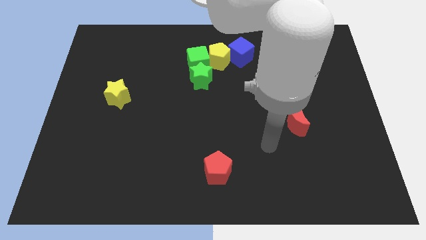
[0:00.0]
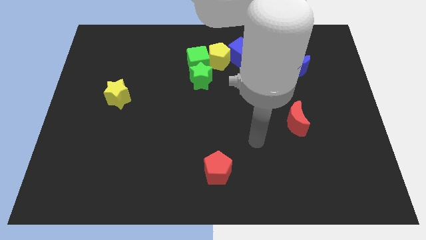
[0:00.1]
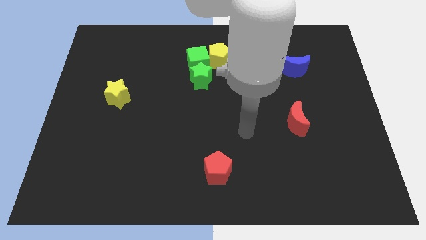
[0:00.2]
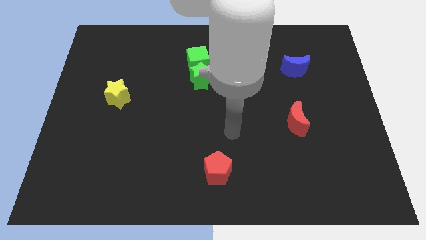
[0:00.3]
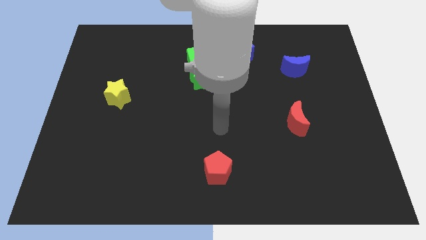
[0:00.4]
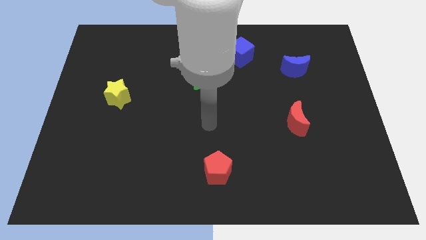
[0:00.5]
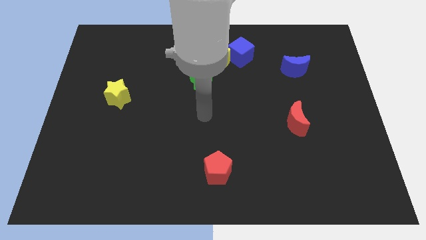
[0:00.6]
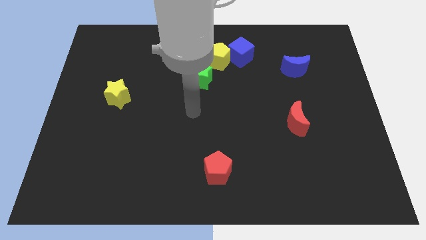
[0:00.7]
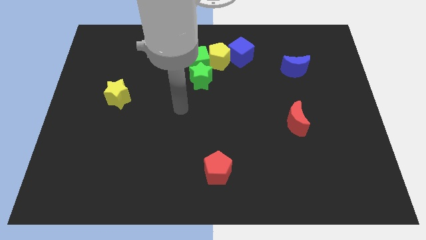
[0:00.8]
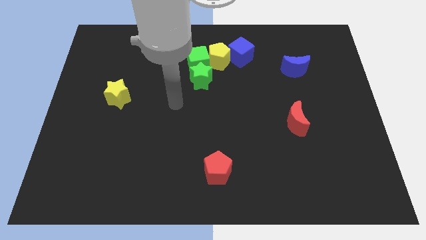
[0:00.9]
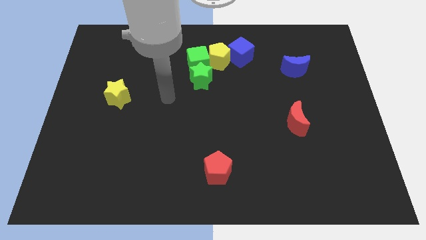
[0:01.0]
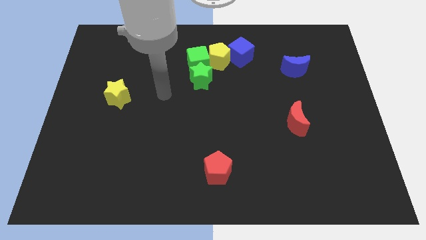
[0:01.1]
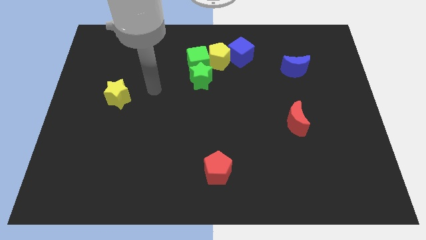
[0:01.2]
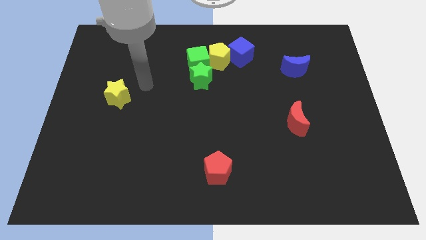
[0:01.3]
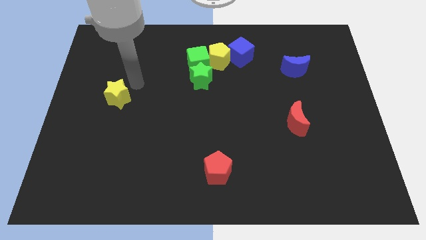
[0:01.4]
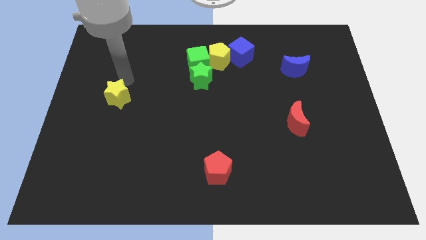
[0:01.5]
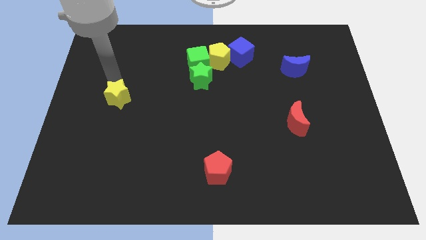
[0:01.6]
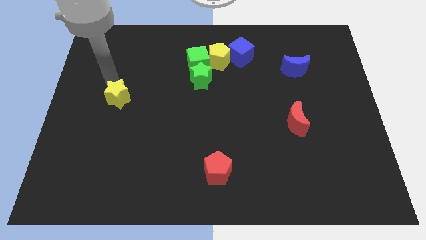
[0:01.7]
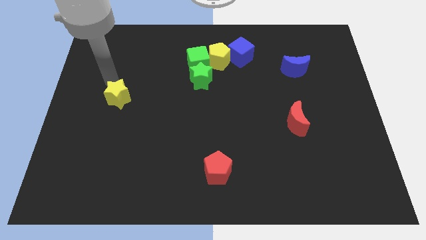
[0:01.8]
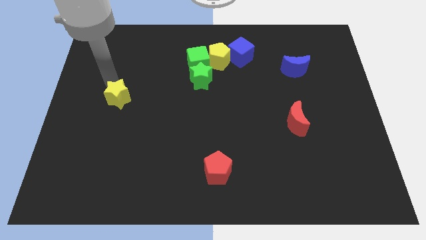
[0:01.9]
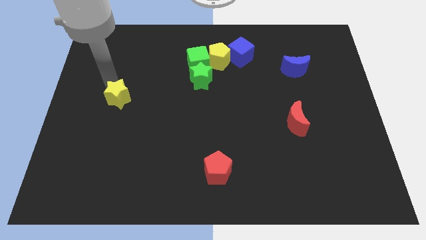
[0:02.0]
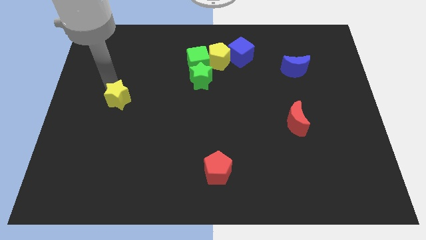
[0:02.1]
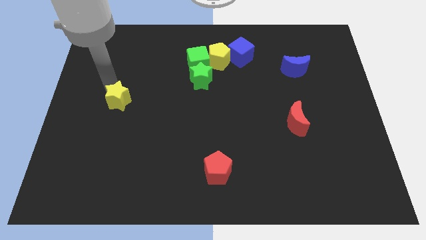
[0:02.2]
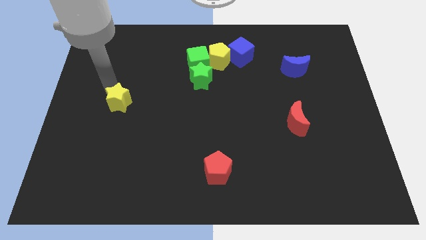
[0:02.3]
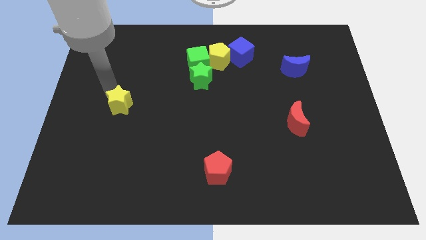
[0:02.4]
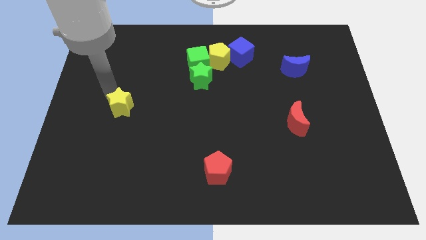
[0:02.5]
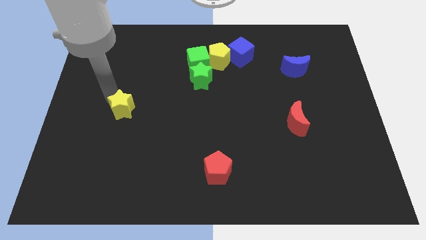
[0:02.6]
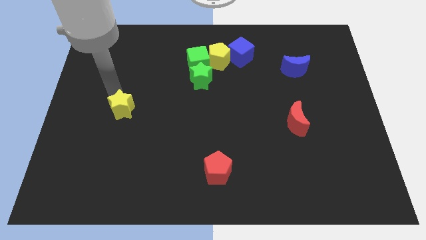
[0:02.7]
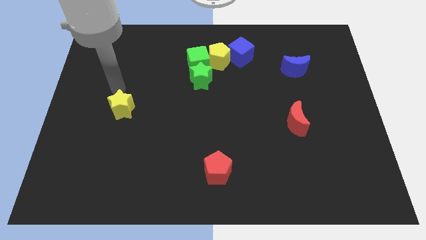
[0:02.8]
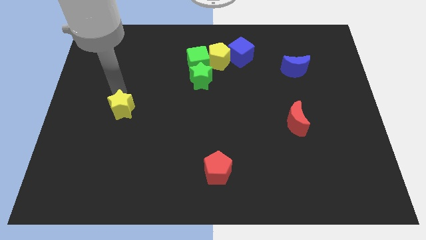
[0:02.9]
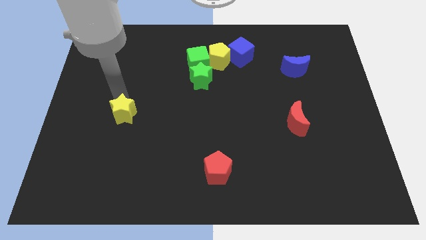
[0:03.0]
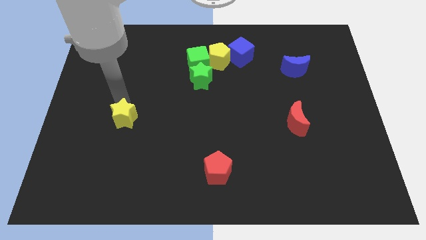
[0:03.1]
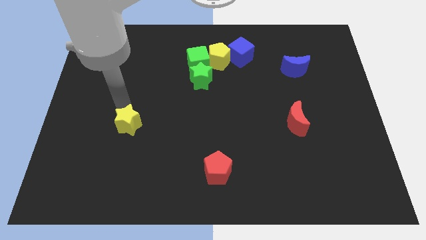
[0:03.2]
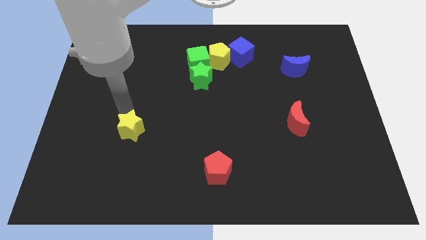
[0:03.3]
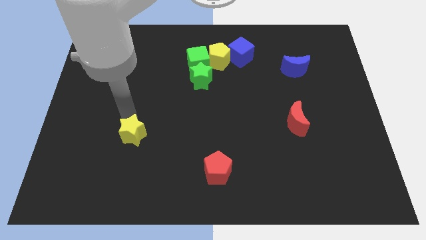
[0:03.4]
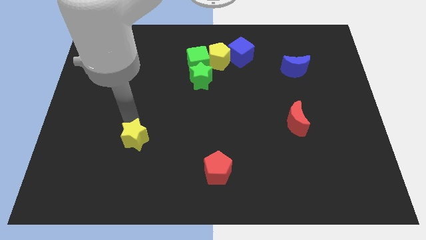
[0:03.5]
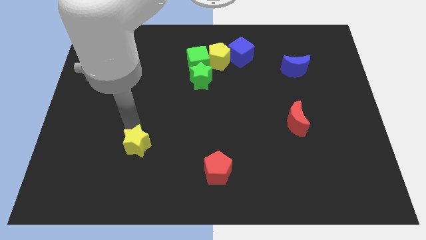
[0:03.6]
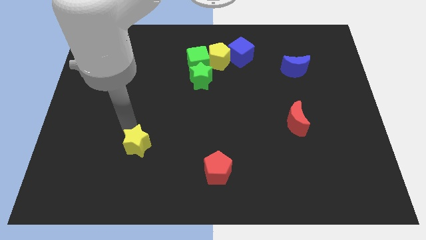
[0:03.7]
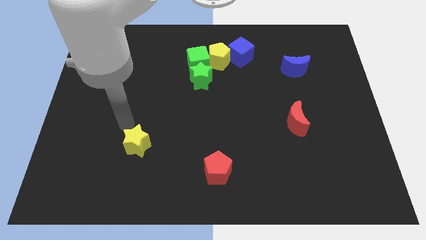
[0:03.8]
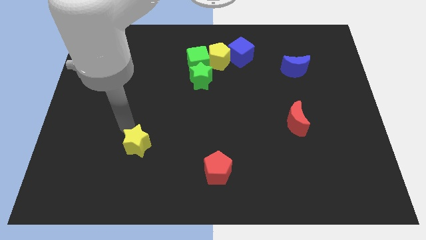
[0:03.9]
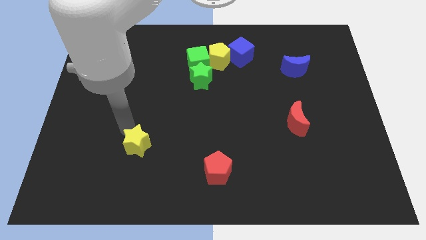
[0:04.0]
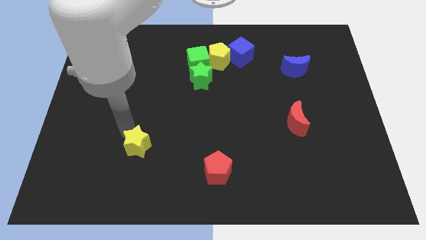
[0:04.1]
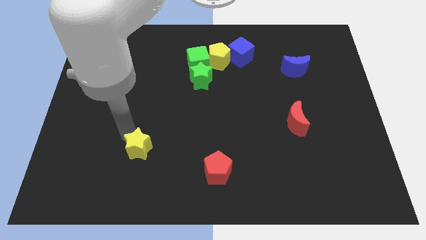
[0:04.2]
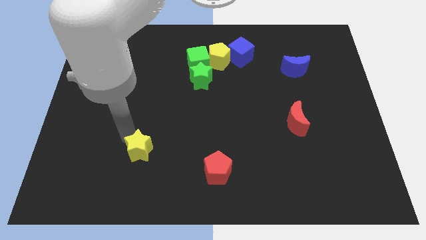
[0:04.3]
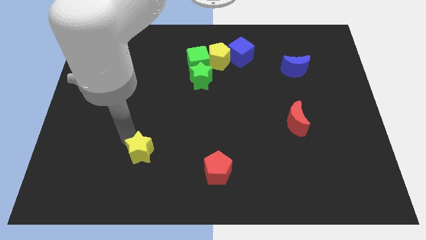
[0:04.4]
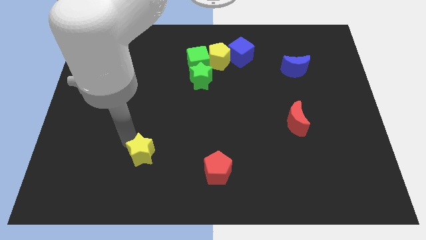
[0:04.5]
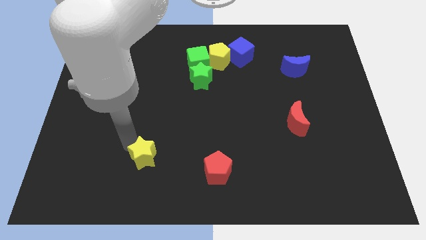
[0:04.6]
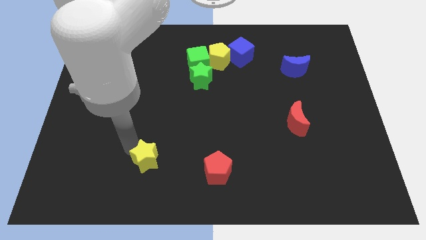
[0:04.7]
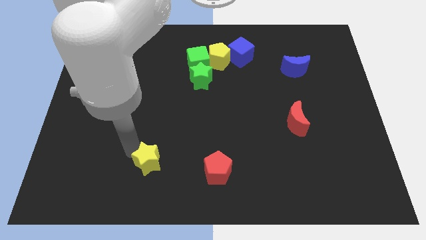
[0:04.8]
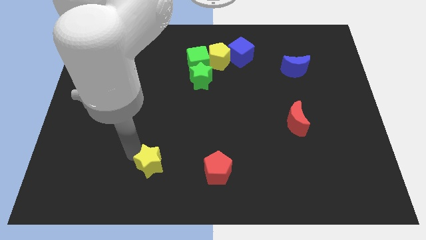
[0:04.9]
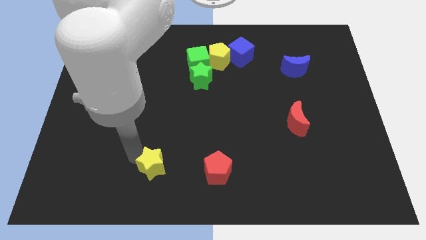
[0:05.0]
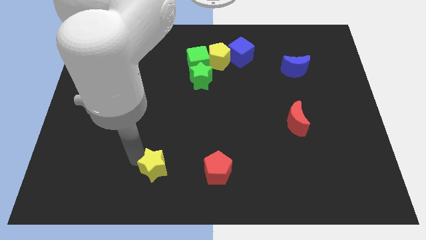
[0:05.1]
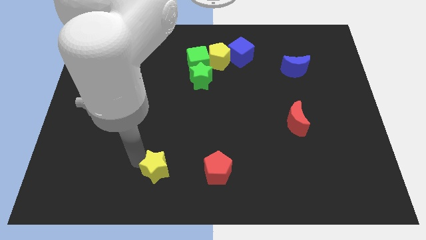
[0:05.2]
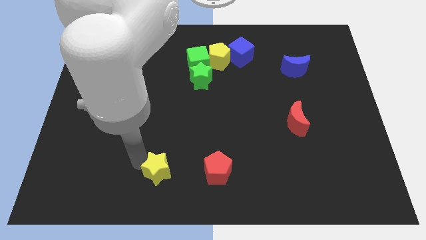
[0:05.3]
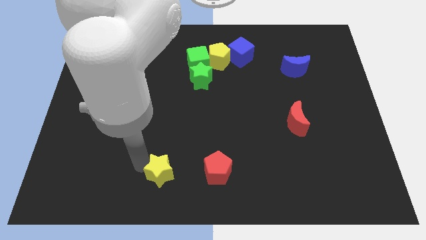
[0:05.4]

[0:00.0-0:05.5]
move the yellow star to the bottom side

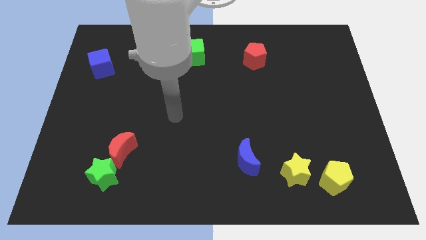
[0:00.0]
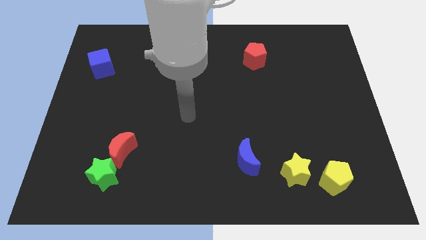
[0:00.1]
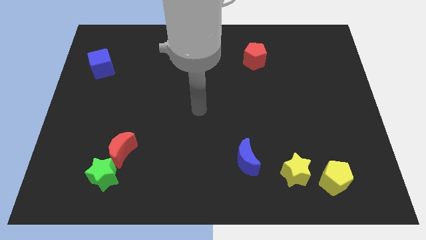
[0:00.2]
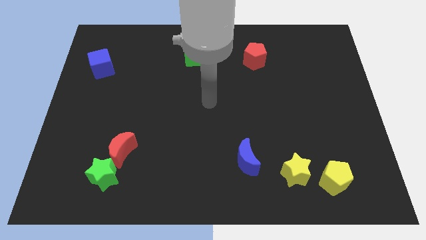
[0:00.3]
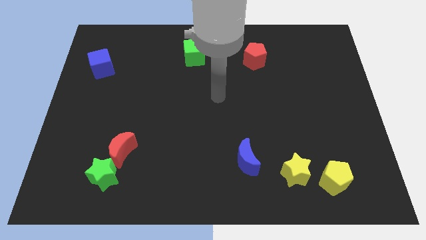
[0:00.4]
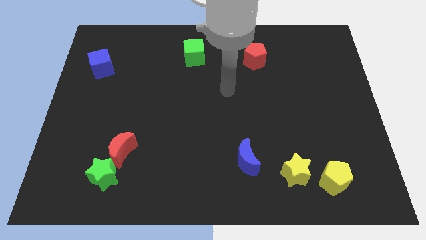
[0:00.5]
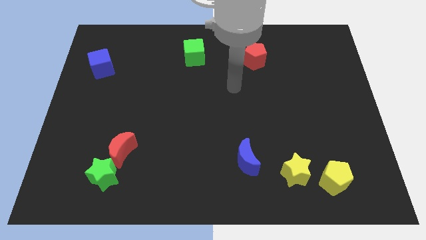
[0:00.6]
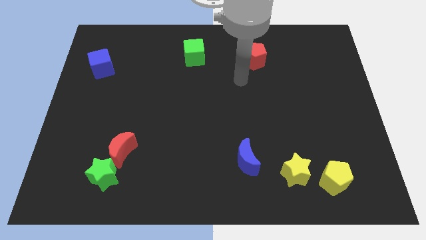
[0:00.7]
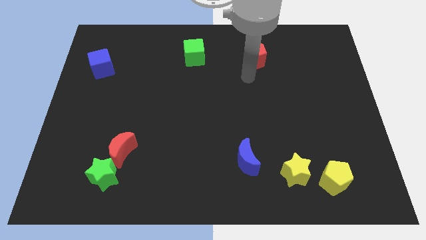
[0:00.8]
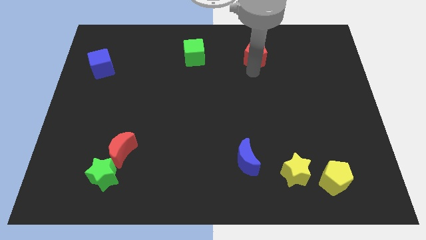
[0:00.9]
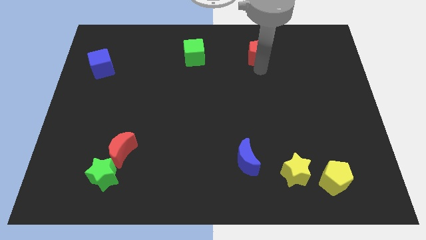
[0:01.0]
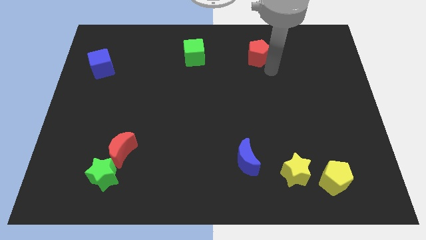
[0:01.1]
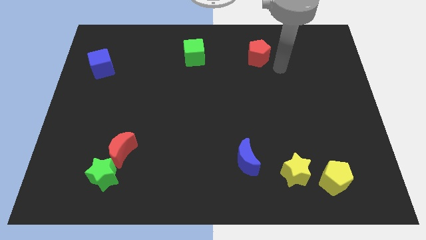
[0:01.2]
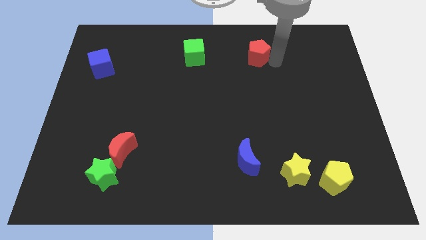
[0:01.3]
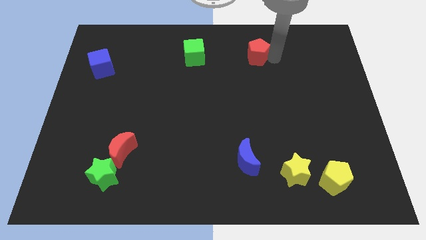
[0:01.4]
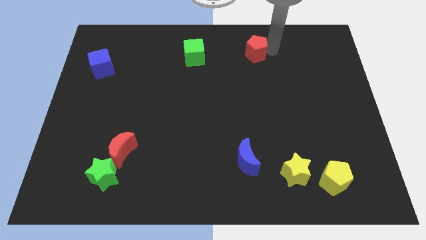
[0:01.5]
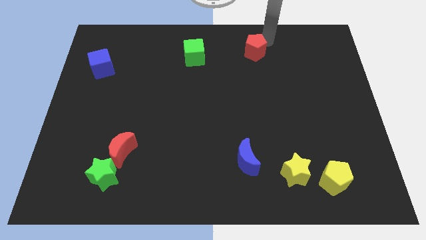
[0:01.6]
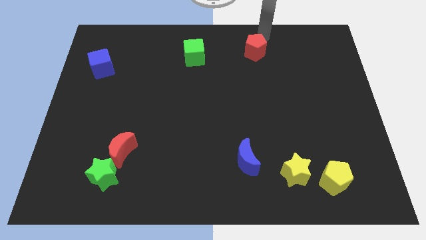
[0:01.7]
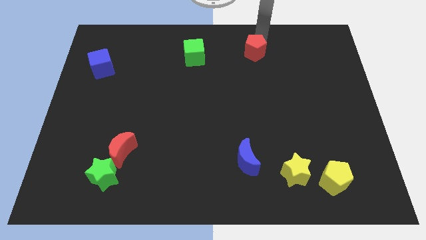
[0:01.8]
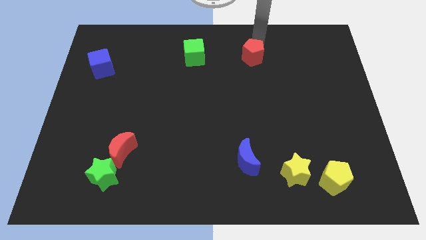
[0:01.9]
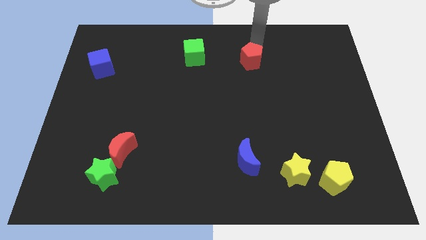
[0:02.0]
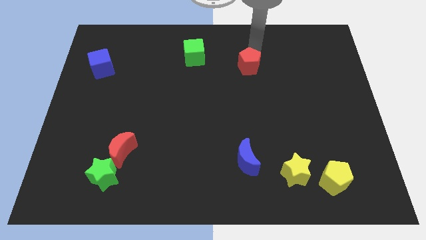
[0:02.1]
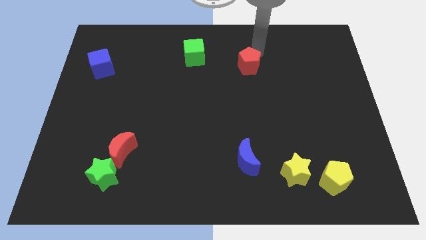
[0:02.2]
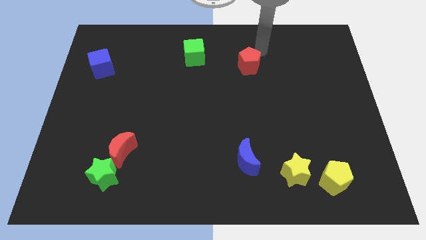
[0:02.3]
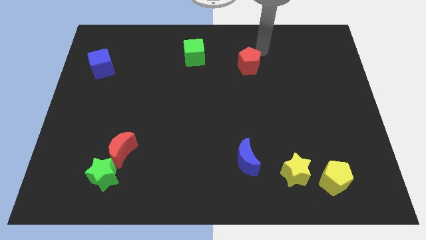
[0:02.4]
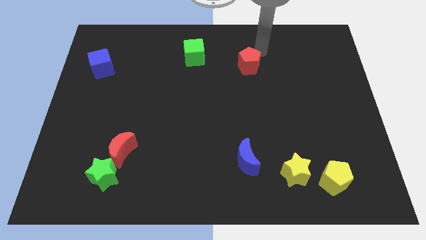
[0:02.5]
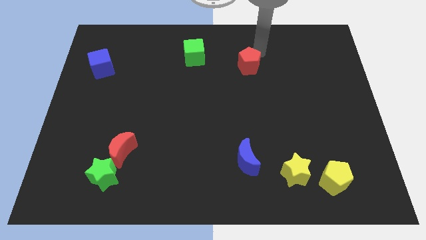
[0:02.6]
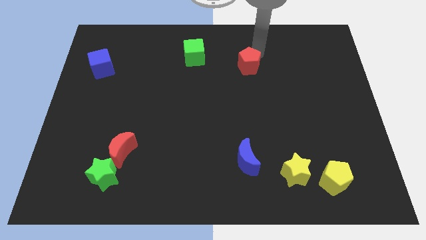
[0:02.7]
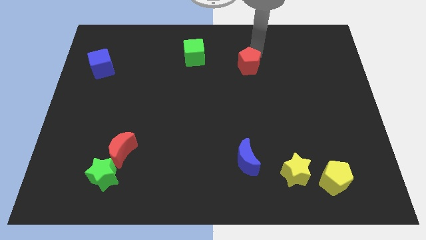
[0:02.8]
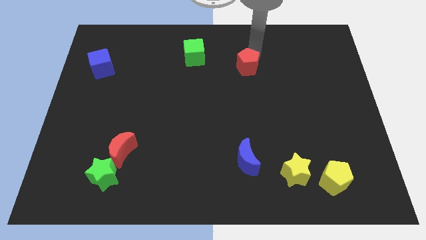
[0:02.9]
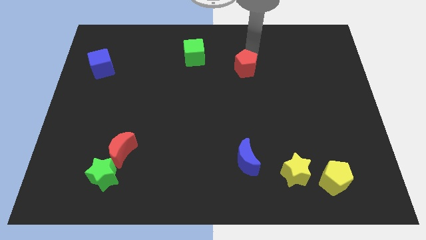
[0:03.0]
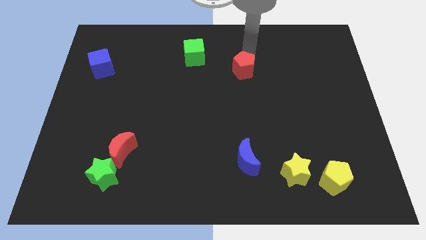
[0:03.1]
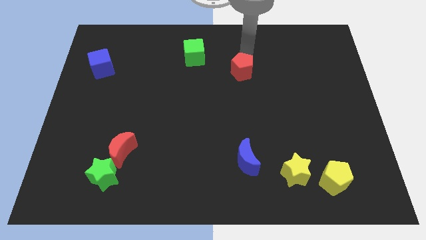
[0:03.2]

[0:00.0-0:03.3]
put the red pentagon to the center
